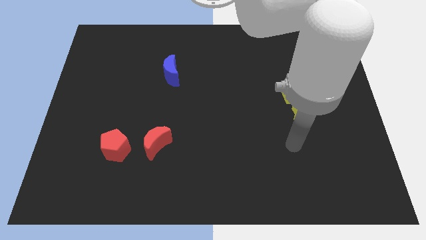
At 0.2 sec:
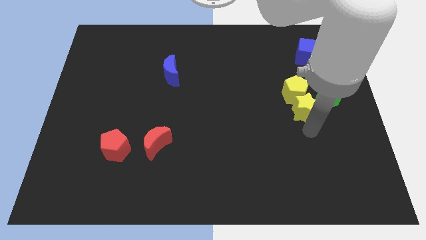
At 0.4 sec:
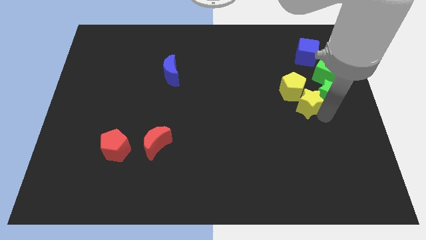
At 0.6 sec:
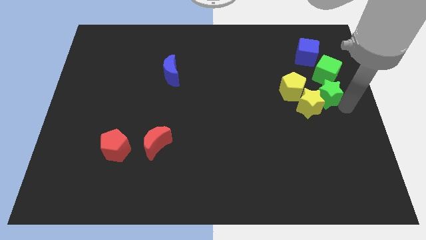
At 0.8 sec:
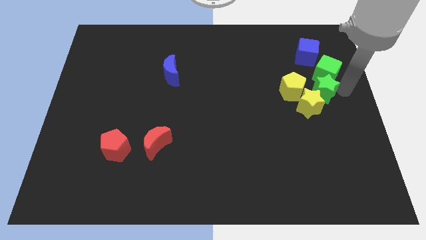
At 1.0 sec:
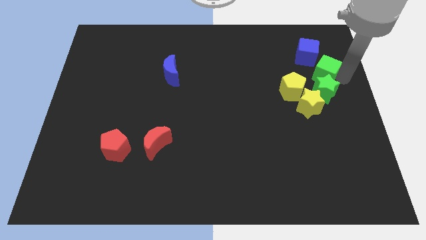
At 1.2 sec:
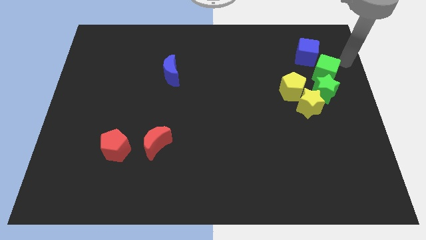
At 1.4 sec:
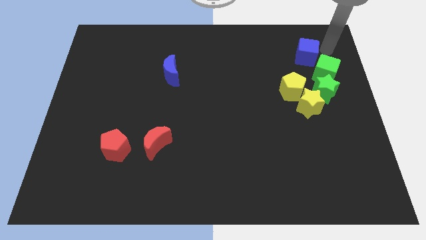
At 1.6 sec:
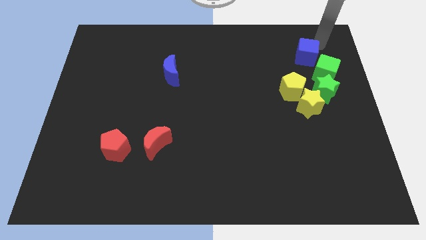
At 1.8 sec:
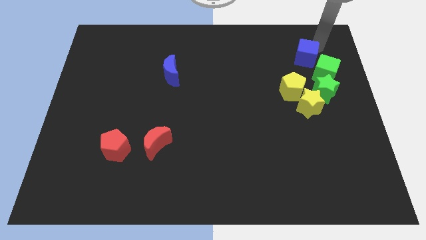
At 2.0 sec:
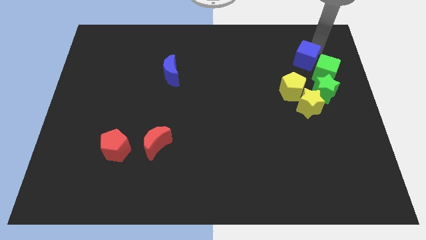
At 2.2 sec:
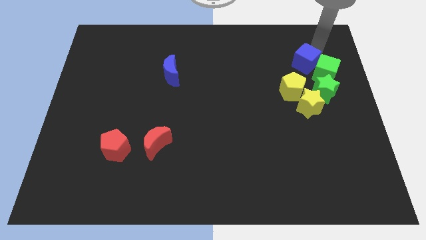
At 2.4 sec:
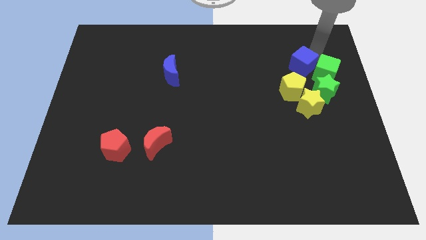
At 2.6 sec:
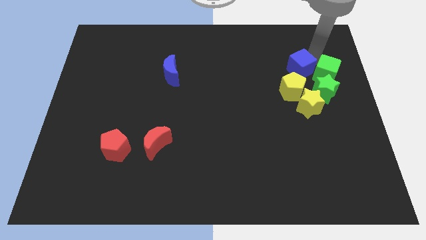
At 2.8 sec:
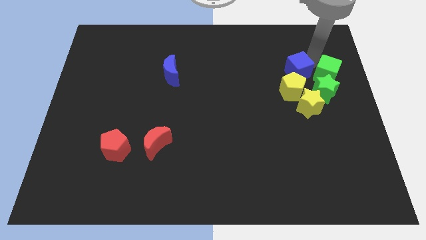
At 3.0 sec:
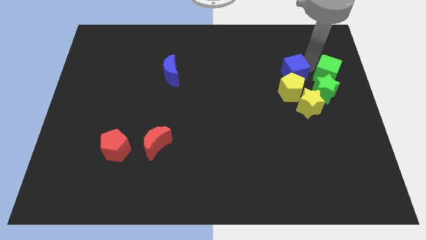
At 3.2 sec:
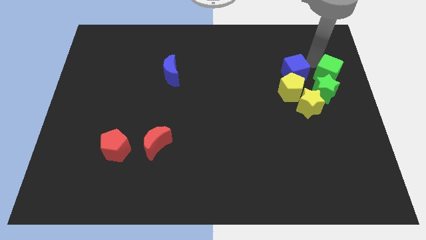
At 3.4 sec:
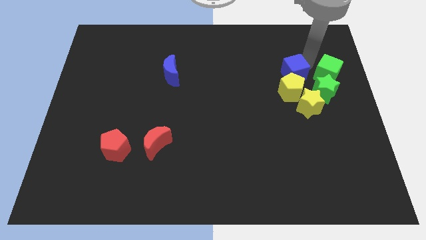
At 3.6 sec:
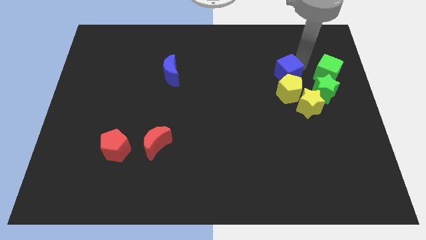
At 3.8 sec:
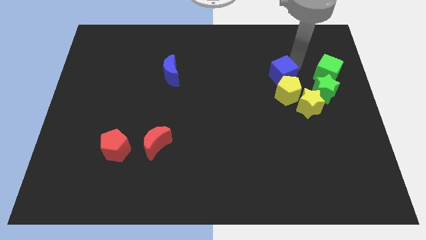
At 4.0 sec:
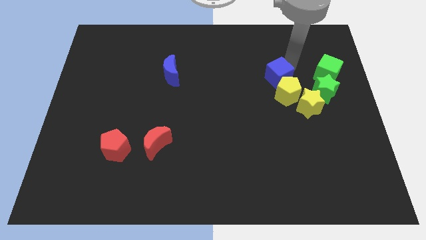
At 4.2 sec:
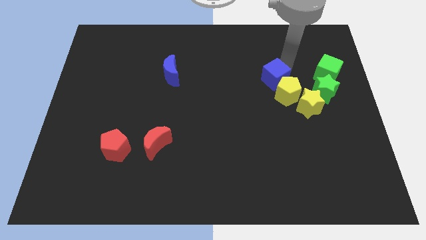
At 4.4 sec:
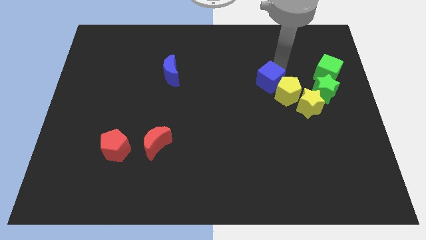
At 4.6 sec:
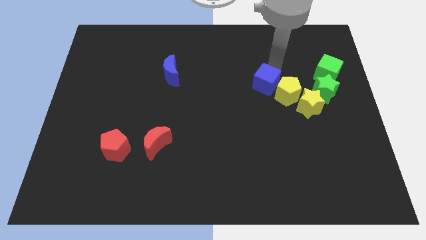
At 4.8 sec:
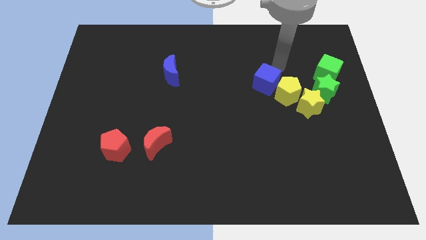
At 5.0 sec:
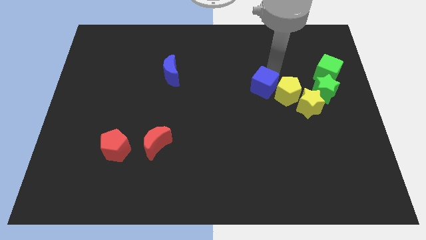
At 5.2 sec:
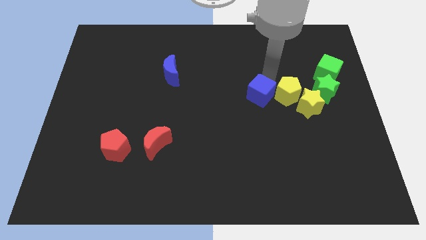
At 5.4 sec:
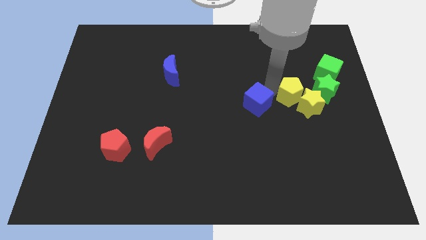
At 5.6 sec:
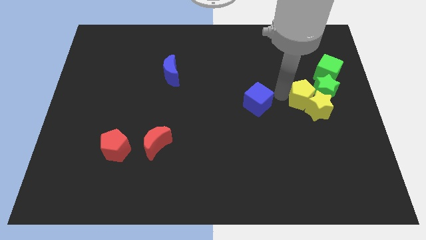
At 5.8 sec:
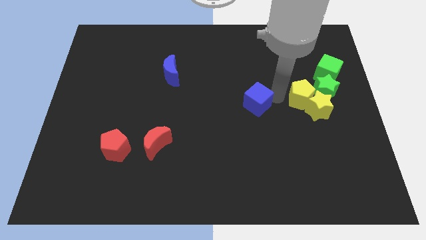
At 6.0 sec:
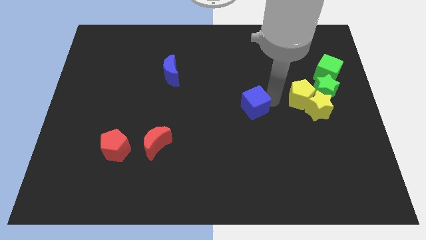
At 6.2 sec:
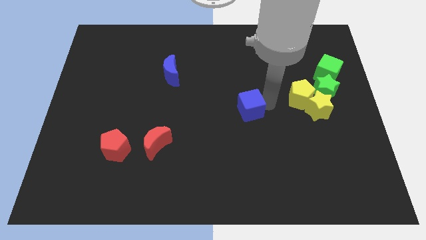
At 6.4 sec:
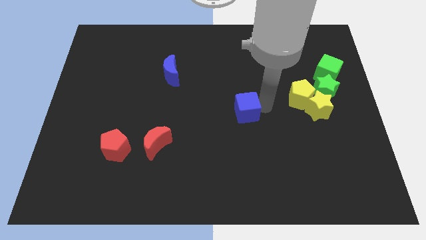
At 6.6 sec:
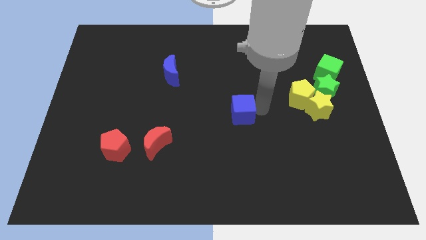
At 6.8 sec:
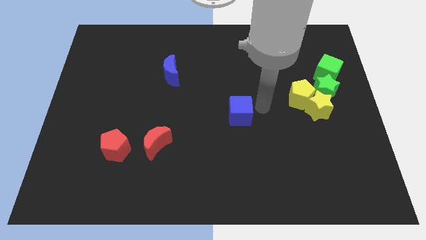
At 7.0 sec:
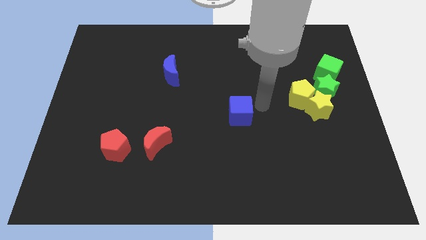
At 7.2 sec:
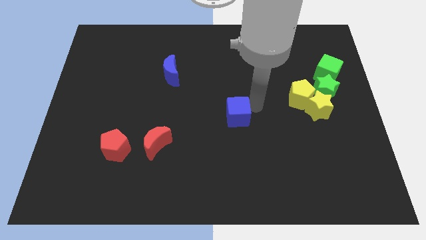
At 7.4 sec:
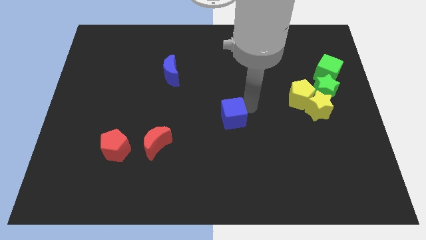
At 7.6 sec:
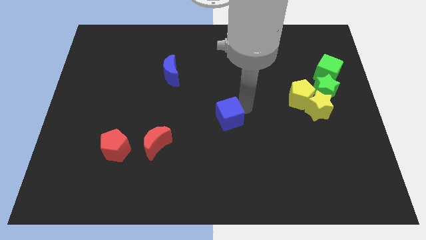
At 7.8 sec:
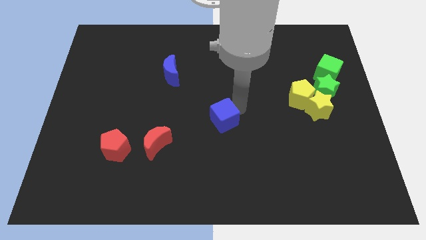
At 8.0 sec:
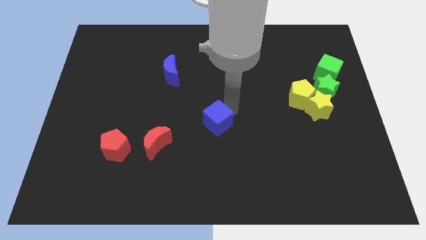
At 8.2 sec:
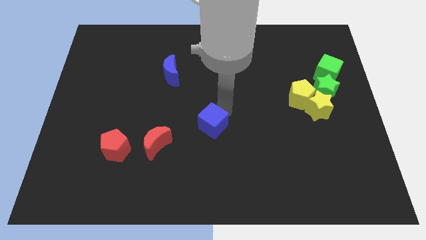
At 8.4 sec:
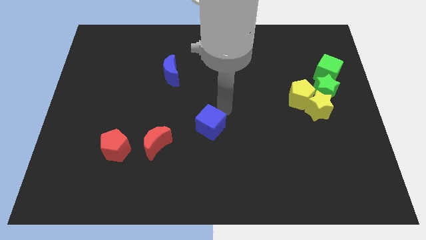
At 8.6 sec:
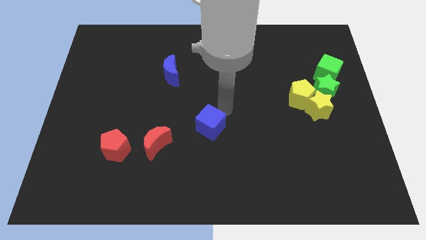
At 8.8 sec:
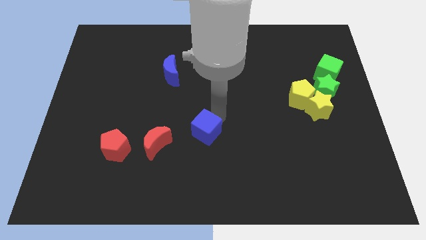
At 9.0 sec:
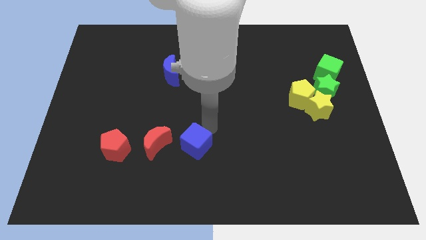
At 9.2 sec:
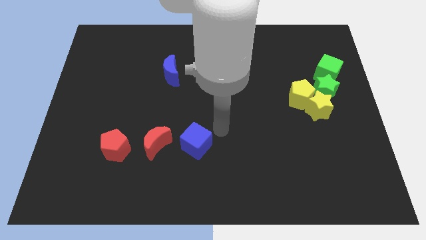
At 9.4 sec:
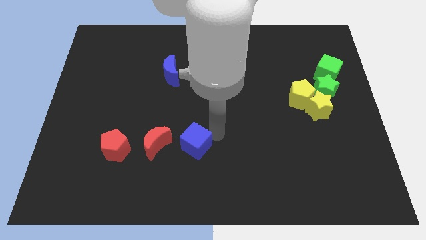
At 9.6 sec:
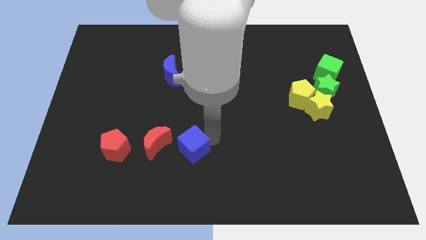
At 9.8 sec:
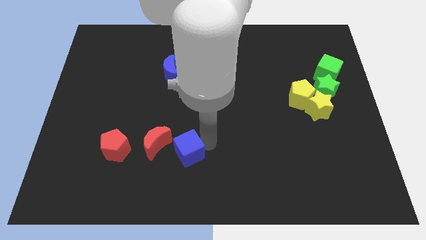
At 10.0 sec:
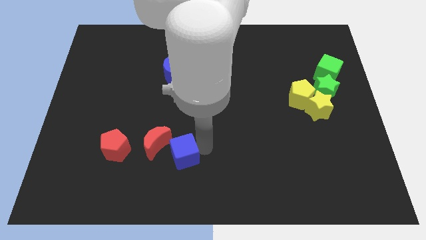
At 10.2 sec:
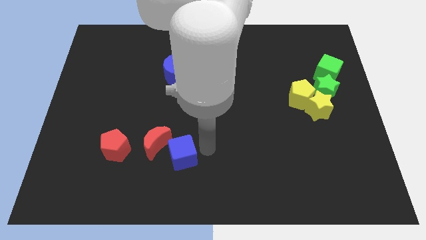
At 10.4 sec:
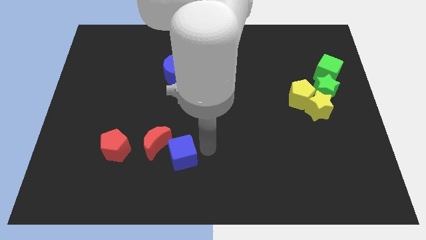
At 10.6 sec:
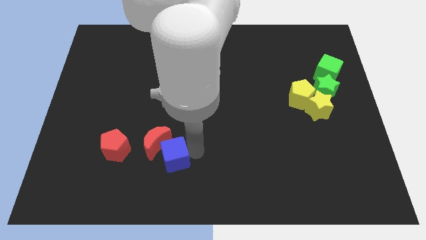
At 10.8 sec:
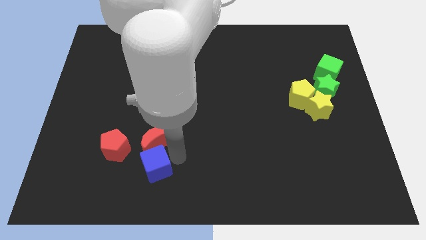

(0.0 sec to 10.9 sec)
push the blue cube diagonally down and to the right of the red pentagon

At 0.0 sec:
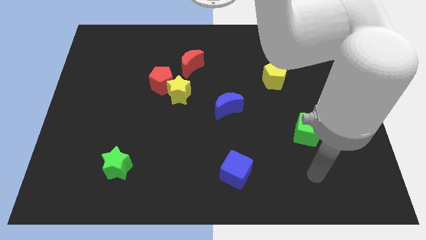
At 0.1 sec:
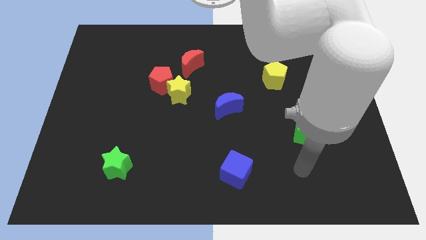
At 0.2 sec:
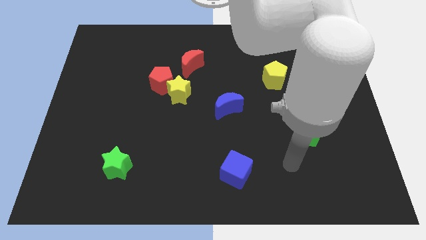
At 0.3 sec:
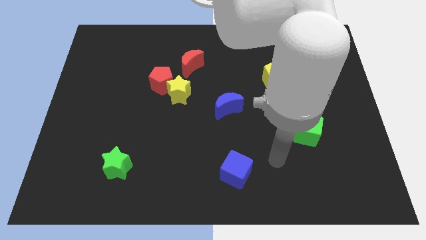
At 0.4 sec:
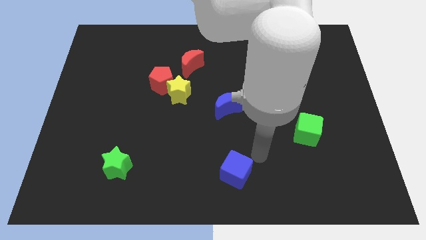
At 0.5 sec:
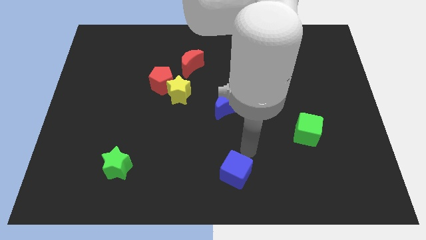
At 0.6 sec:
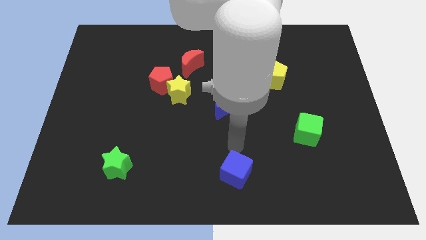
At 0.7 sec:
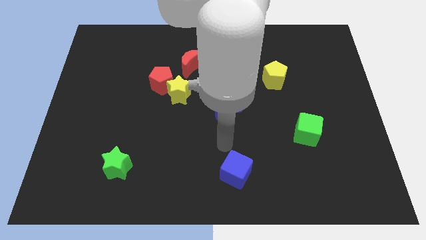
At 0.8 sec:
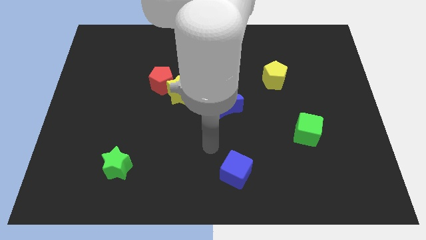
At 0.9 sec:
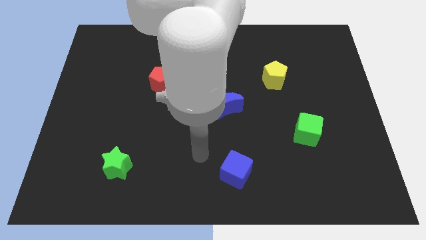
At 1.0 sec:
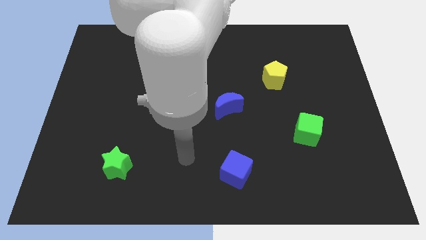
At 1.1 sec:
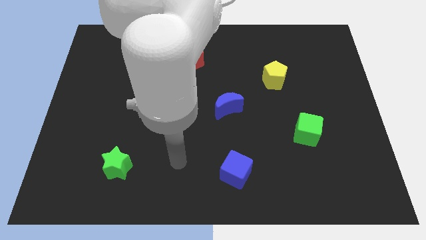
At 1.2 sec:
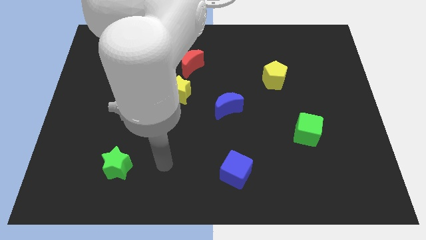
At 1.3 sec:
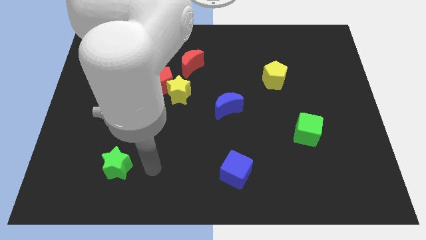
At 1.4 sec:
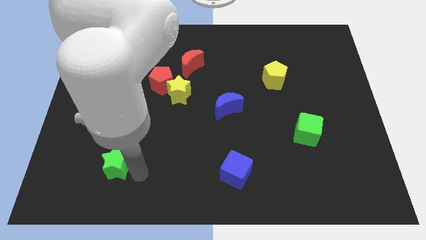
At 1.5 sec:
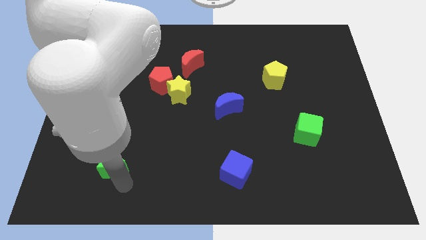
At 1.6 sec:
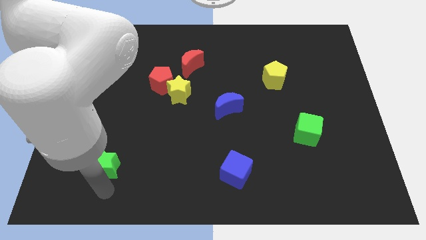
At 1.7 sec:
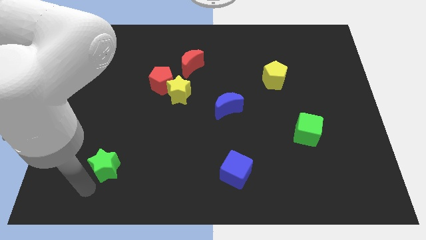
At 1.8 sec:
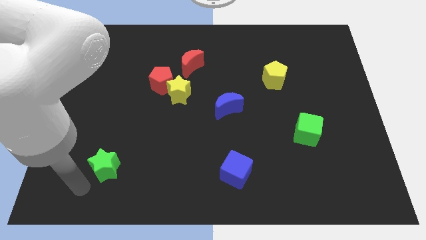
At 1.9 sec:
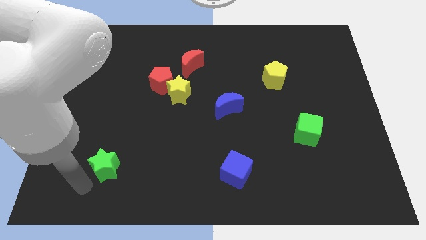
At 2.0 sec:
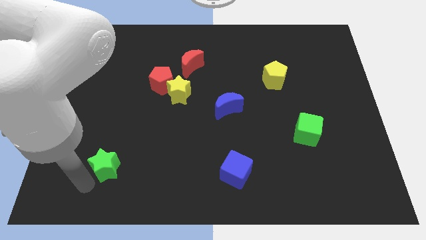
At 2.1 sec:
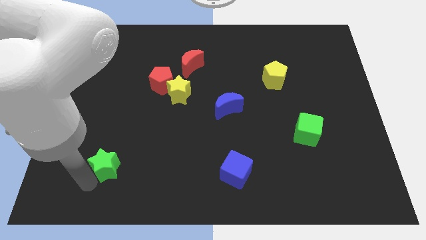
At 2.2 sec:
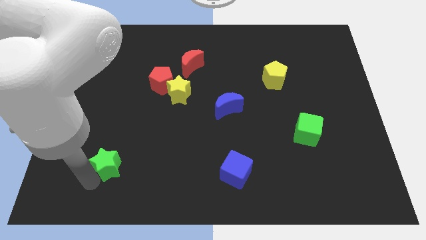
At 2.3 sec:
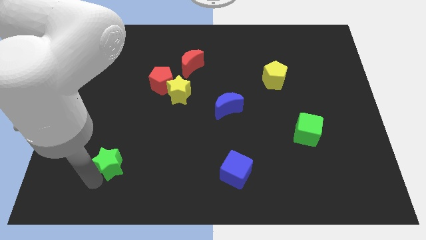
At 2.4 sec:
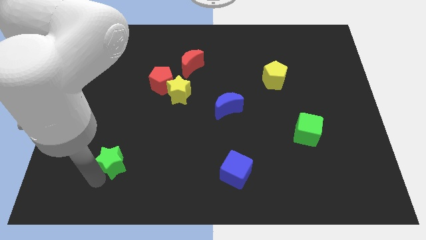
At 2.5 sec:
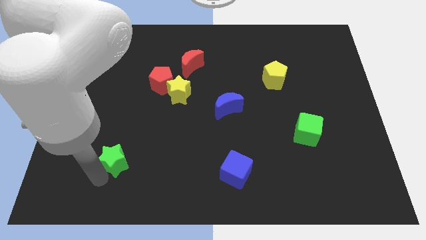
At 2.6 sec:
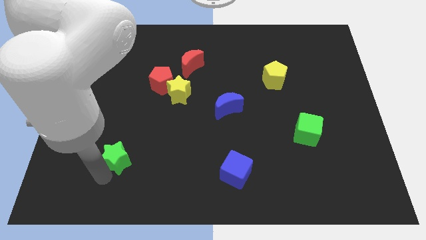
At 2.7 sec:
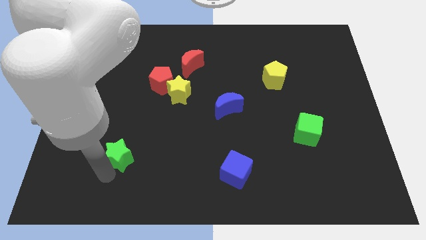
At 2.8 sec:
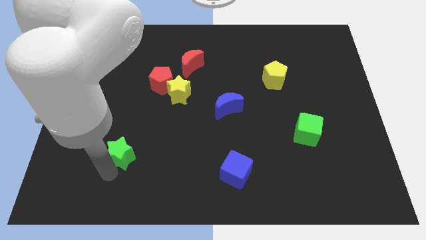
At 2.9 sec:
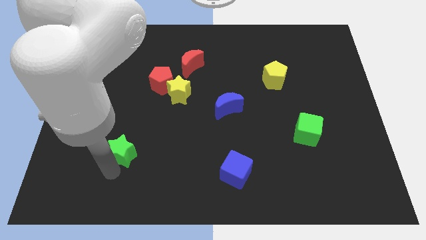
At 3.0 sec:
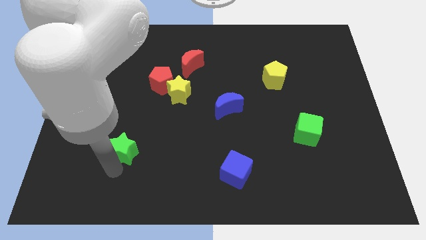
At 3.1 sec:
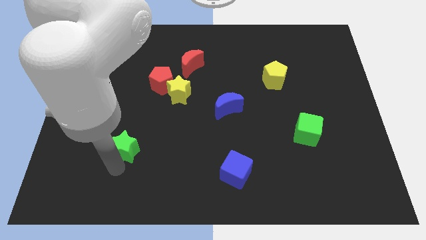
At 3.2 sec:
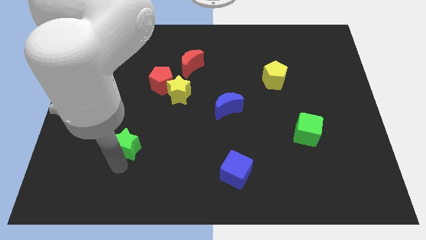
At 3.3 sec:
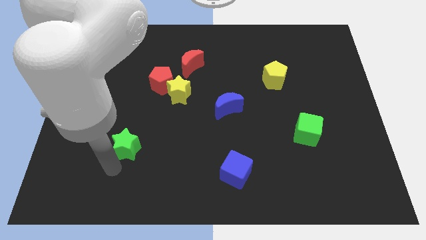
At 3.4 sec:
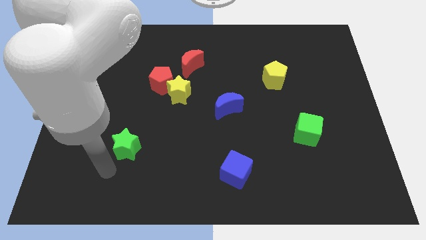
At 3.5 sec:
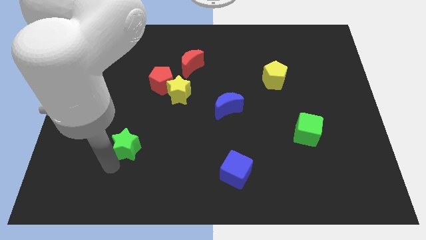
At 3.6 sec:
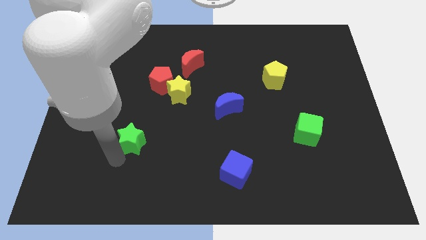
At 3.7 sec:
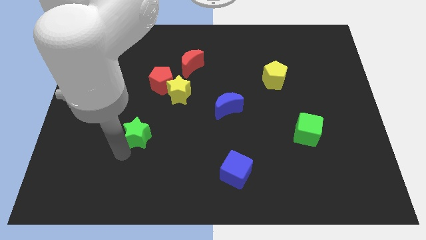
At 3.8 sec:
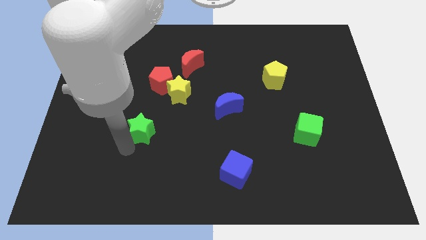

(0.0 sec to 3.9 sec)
push the green star to the bottom side of the red pentagon
